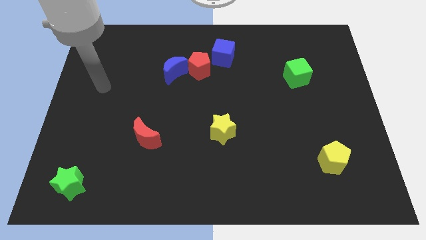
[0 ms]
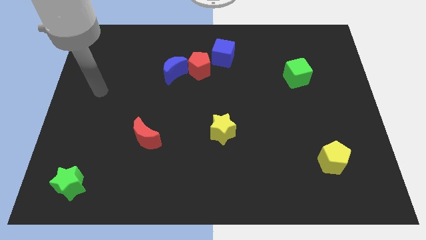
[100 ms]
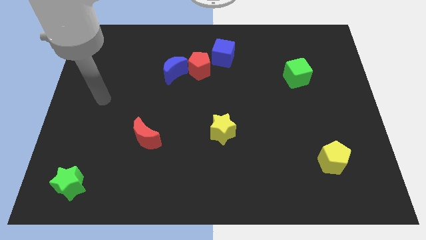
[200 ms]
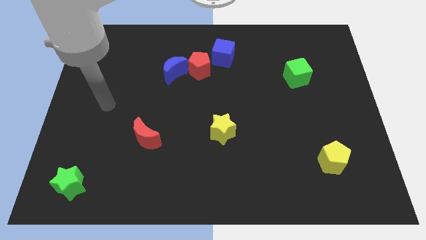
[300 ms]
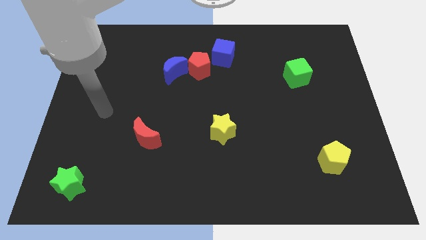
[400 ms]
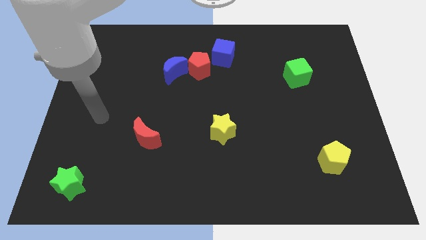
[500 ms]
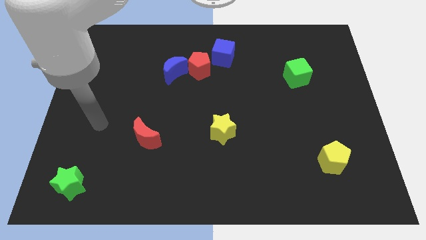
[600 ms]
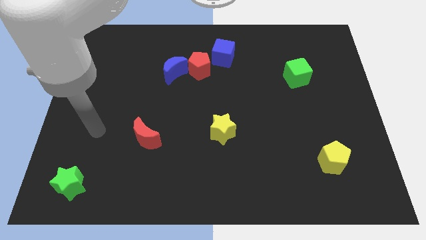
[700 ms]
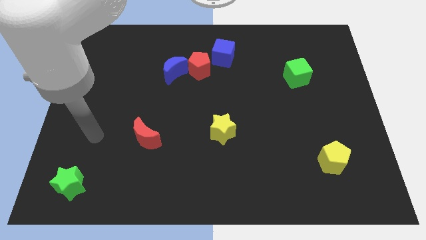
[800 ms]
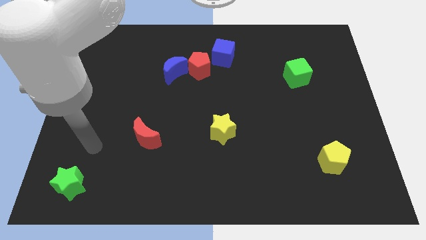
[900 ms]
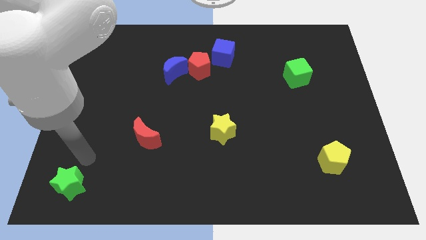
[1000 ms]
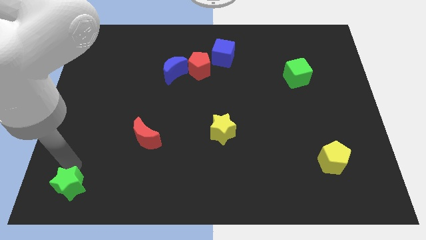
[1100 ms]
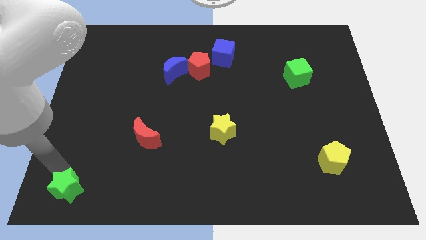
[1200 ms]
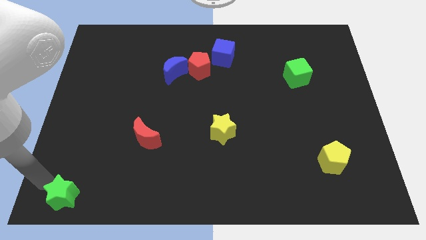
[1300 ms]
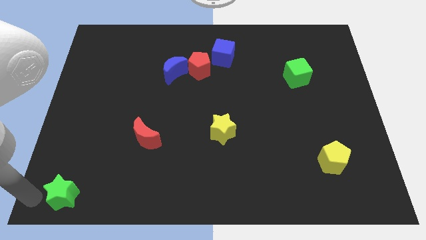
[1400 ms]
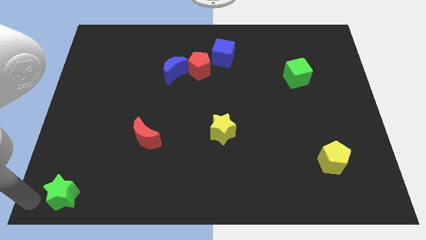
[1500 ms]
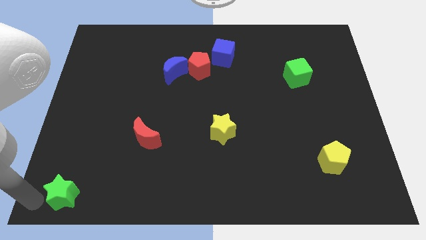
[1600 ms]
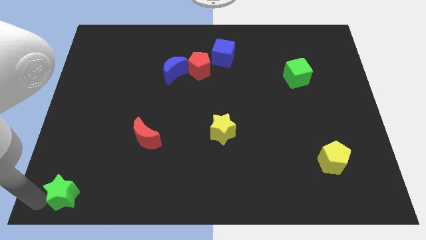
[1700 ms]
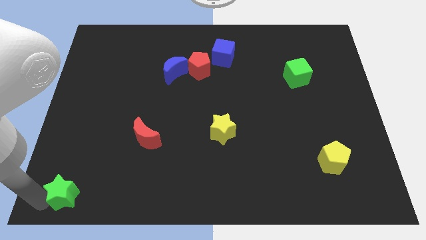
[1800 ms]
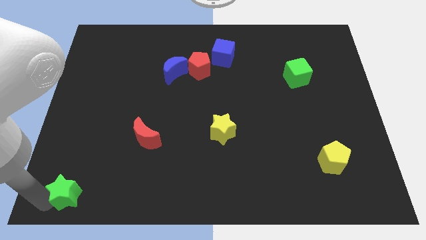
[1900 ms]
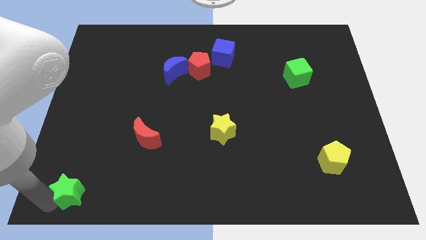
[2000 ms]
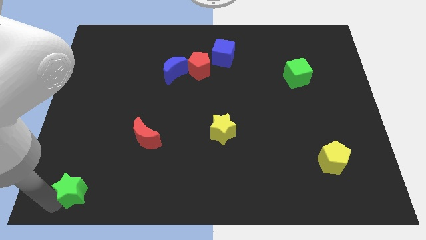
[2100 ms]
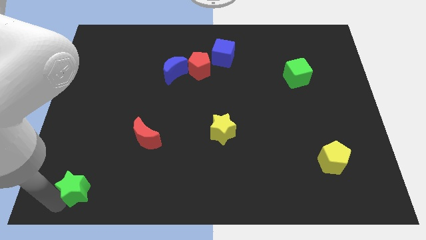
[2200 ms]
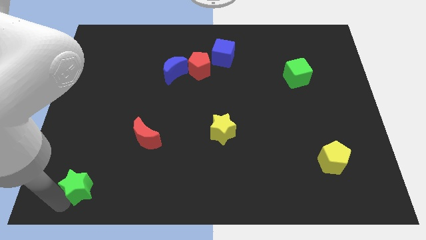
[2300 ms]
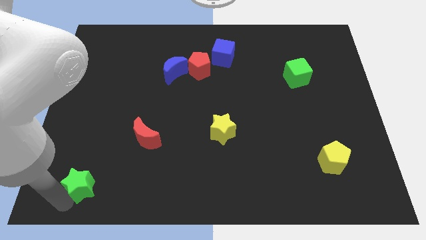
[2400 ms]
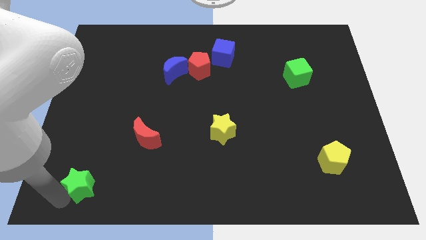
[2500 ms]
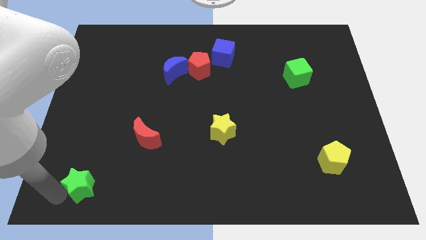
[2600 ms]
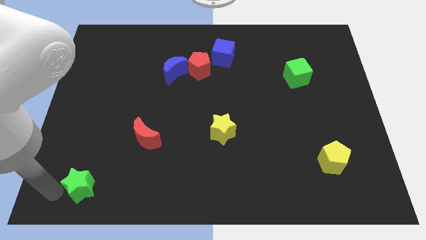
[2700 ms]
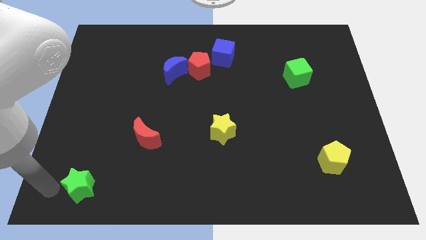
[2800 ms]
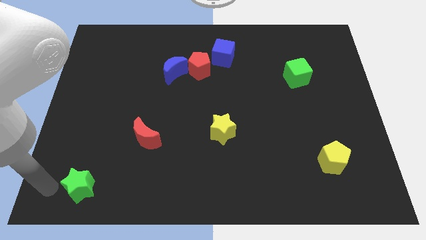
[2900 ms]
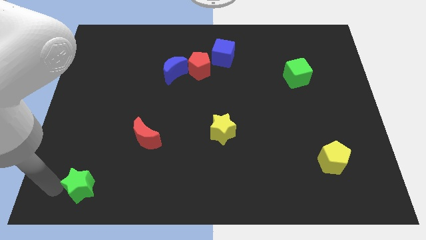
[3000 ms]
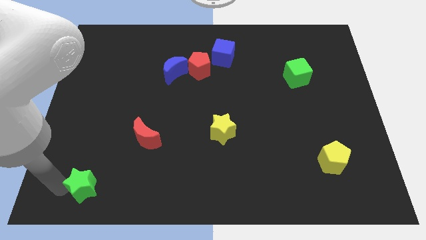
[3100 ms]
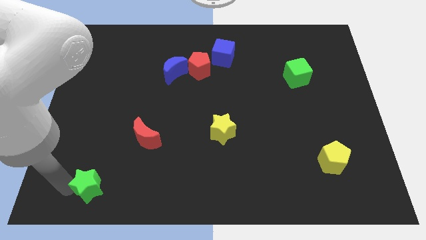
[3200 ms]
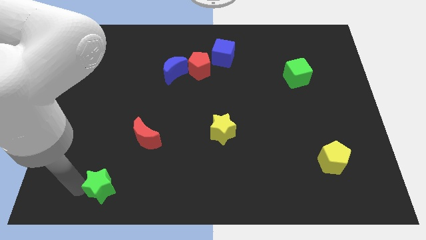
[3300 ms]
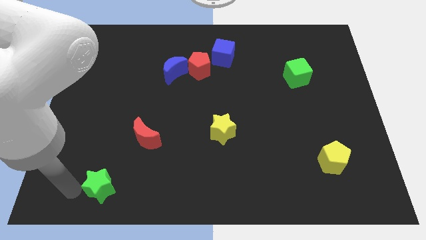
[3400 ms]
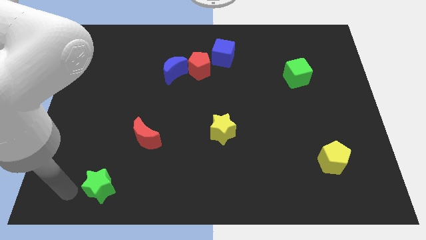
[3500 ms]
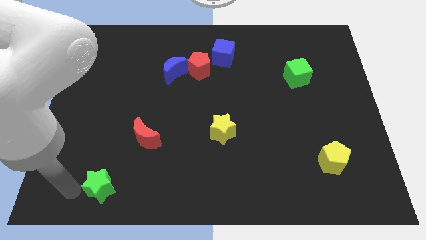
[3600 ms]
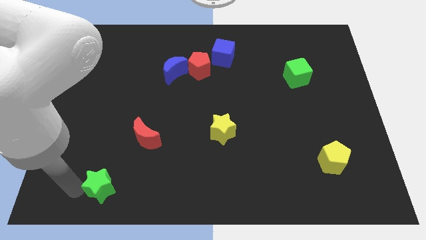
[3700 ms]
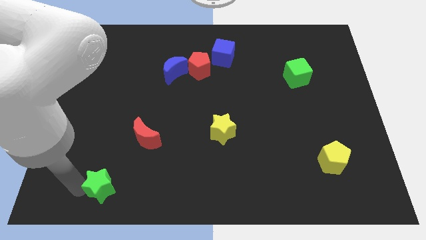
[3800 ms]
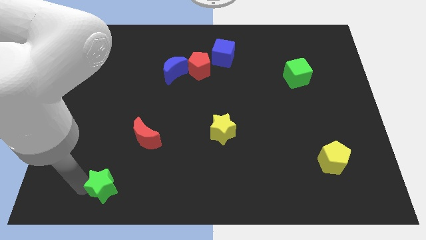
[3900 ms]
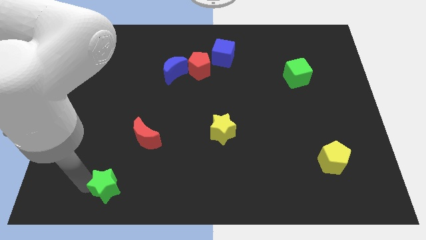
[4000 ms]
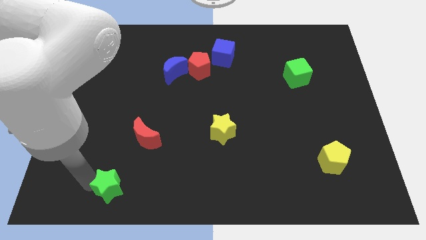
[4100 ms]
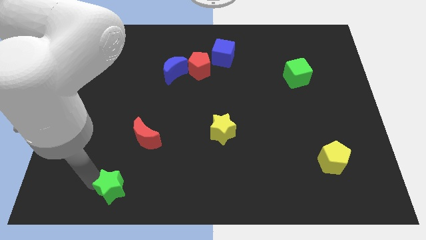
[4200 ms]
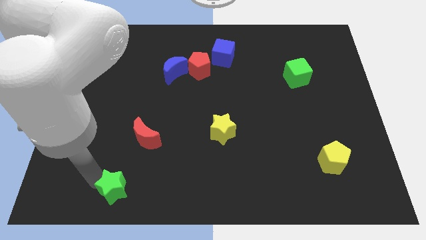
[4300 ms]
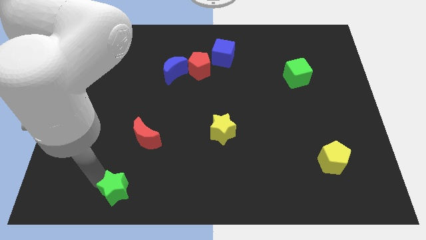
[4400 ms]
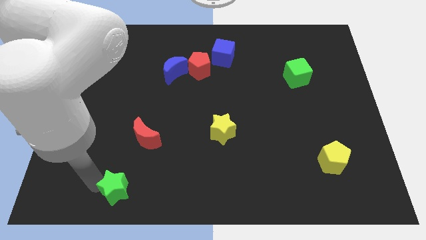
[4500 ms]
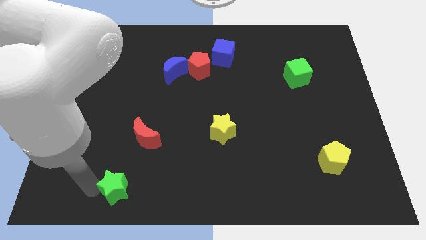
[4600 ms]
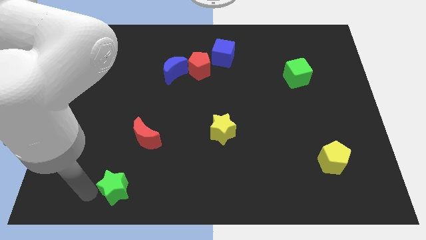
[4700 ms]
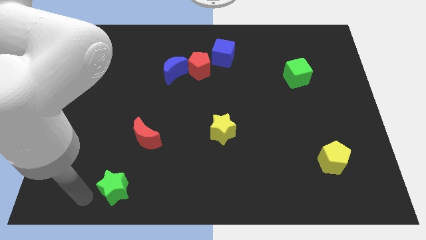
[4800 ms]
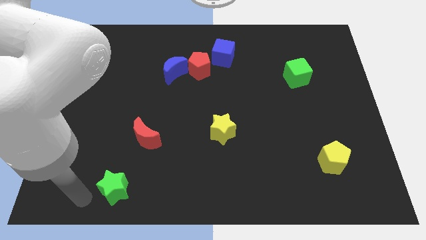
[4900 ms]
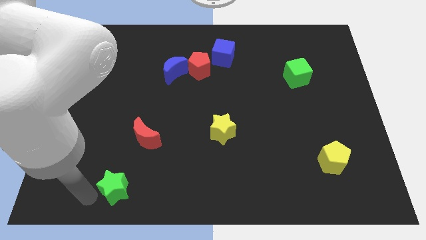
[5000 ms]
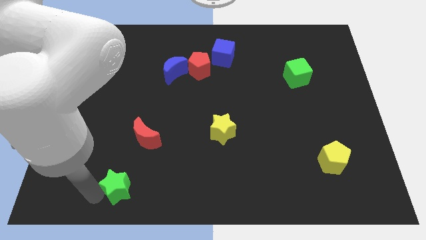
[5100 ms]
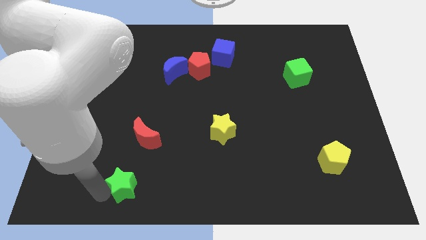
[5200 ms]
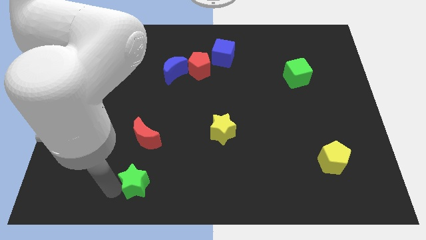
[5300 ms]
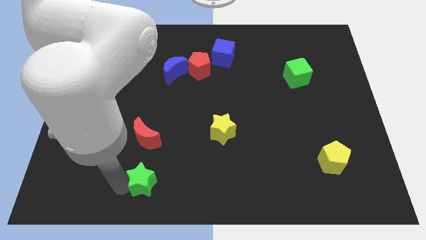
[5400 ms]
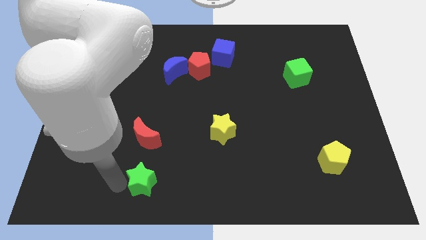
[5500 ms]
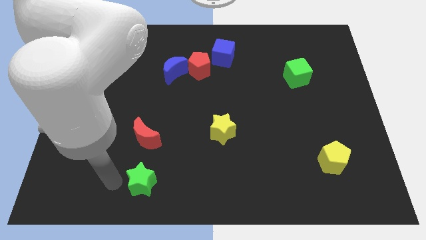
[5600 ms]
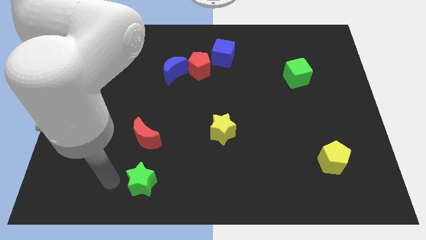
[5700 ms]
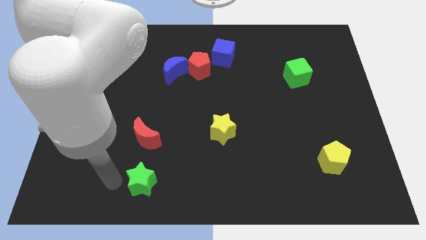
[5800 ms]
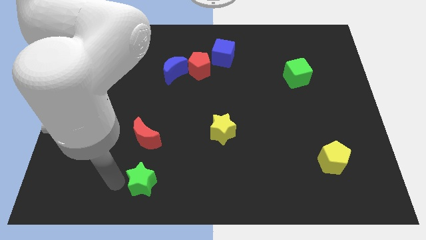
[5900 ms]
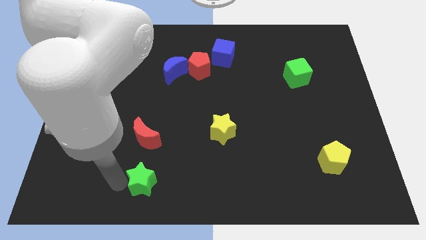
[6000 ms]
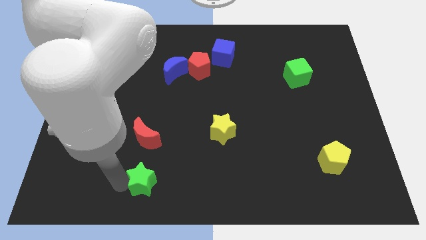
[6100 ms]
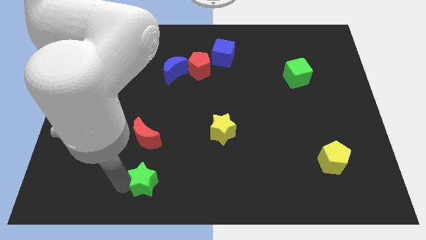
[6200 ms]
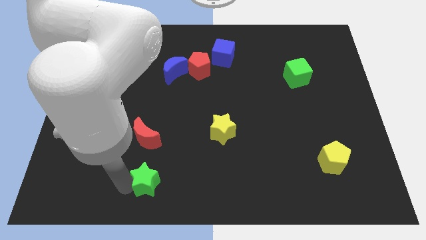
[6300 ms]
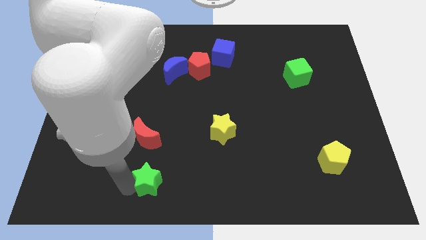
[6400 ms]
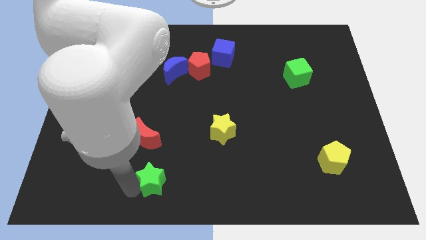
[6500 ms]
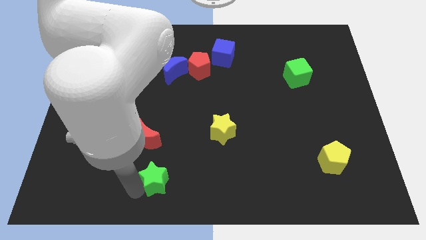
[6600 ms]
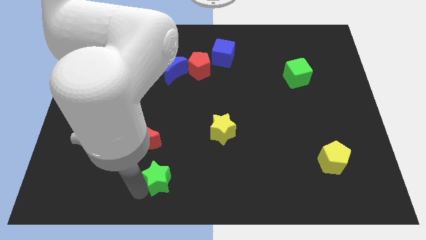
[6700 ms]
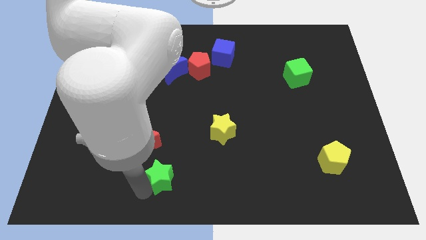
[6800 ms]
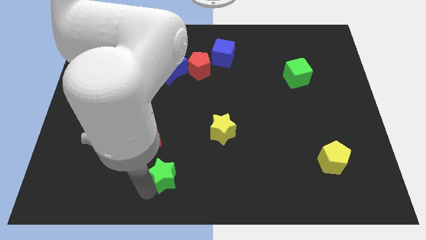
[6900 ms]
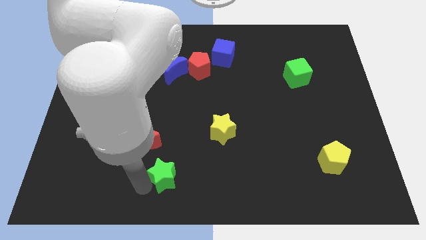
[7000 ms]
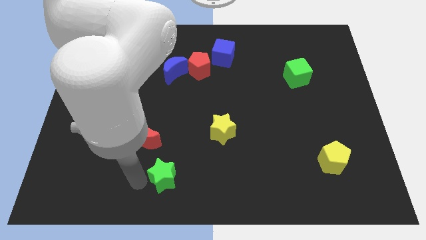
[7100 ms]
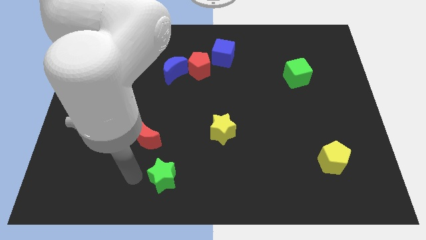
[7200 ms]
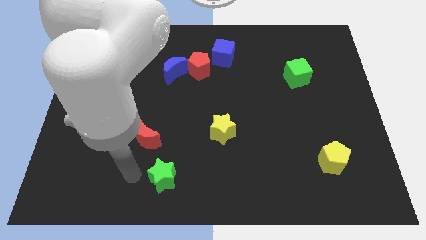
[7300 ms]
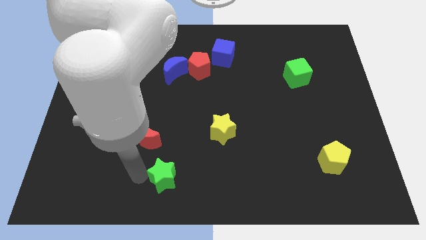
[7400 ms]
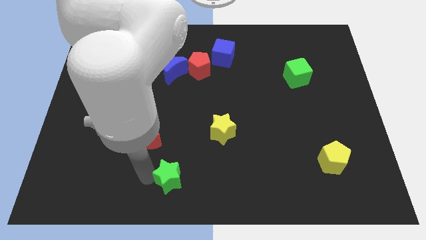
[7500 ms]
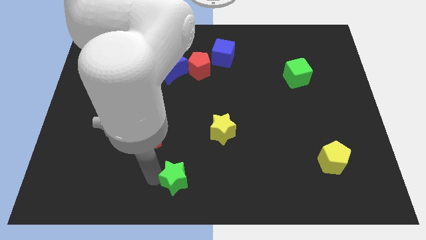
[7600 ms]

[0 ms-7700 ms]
move the green star to the right
